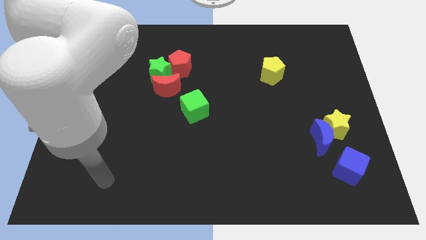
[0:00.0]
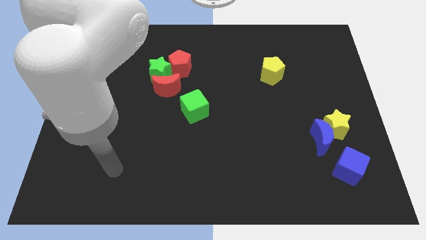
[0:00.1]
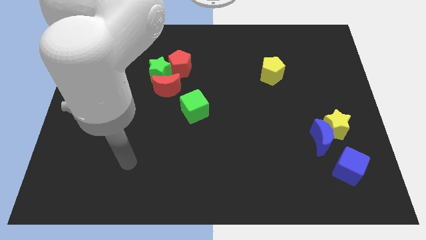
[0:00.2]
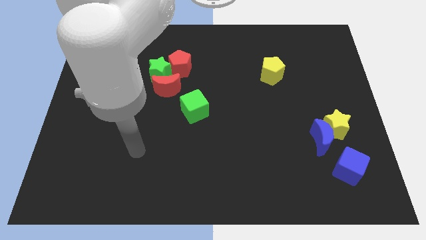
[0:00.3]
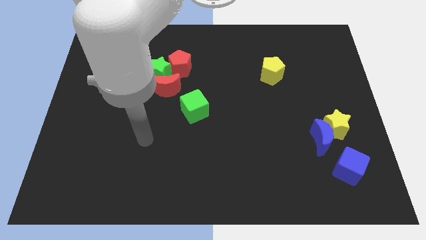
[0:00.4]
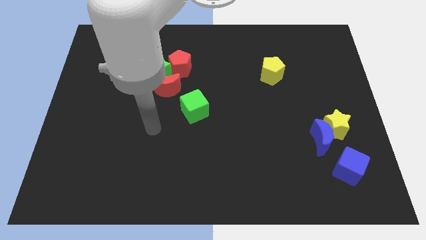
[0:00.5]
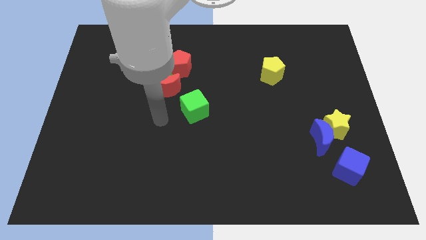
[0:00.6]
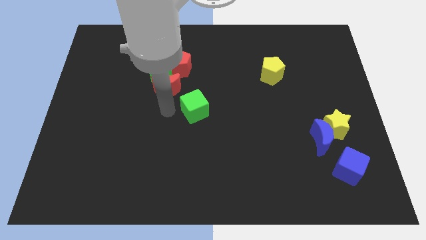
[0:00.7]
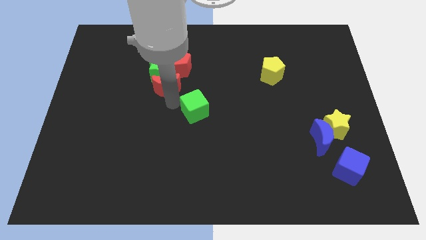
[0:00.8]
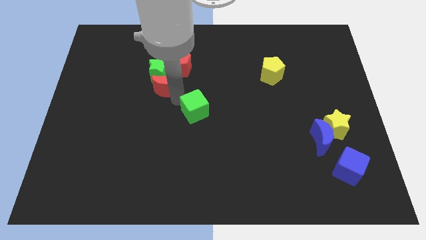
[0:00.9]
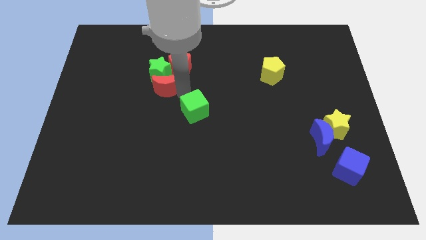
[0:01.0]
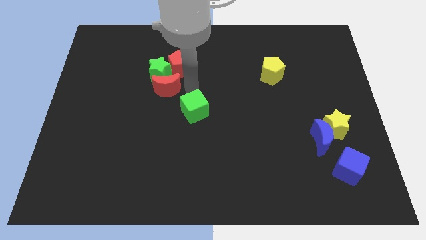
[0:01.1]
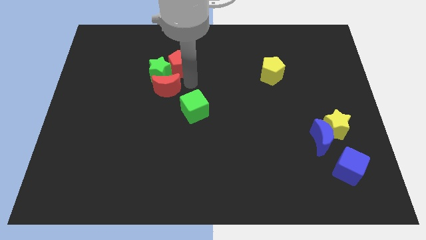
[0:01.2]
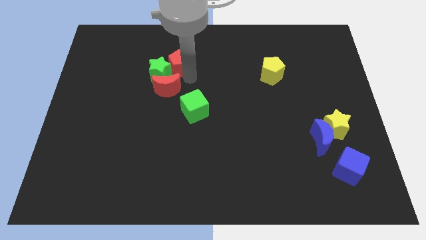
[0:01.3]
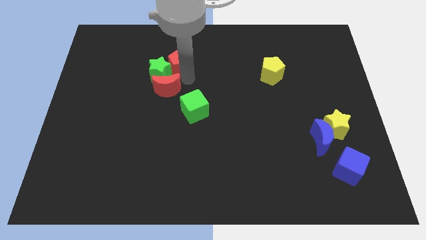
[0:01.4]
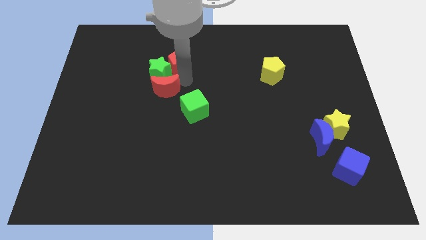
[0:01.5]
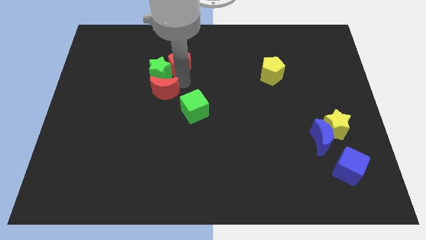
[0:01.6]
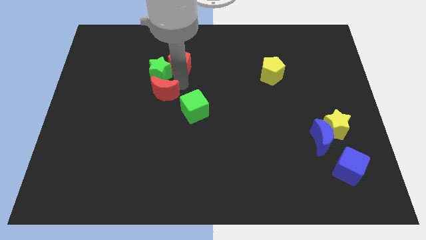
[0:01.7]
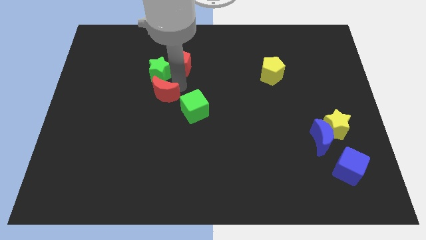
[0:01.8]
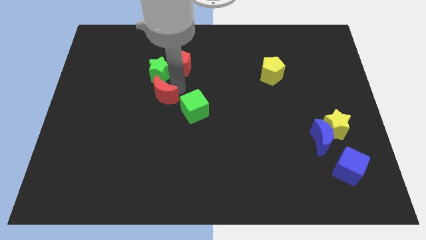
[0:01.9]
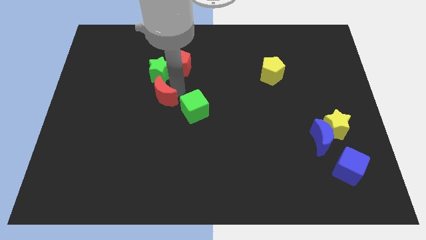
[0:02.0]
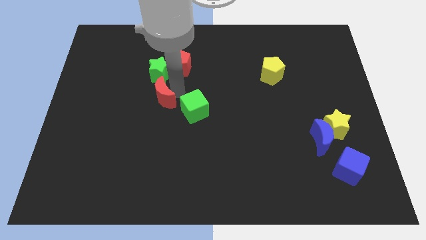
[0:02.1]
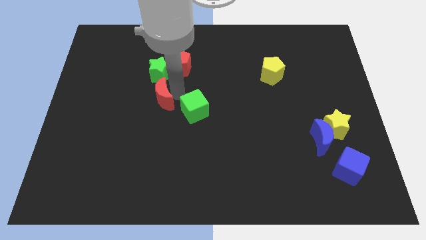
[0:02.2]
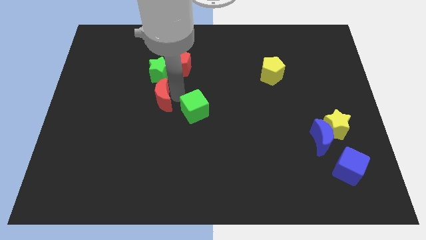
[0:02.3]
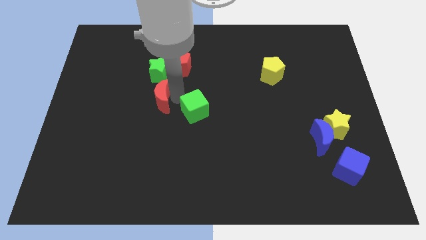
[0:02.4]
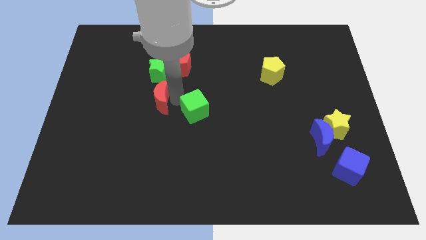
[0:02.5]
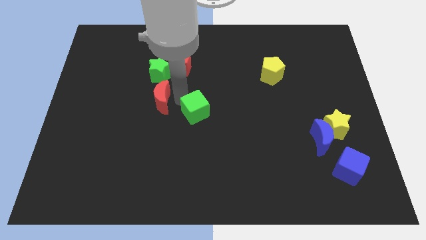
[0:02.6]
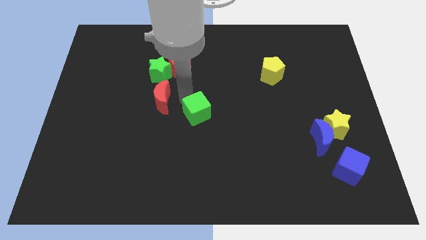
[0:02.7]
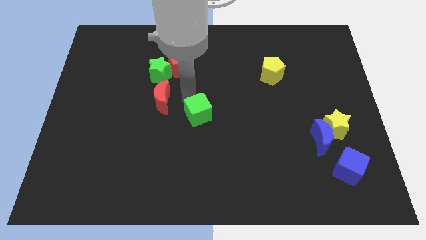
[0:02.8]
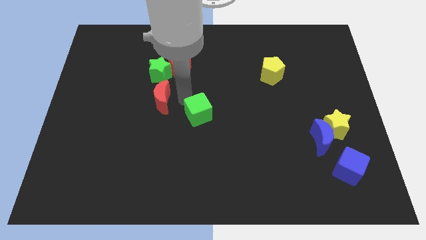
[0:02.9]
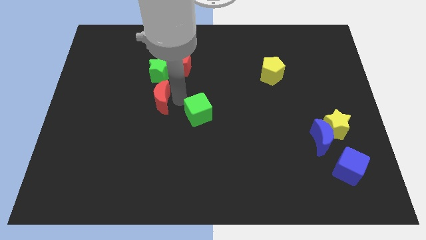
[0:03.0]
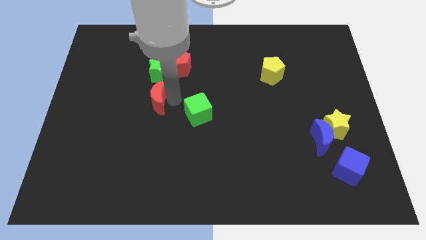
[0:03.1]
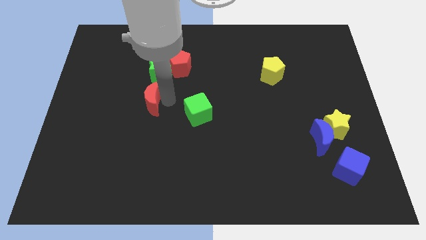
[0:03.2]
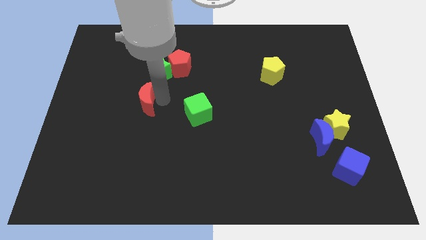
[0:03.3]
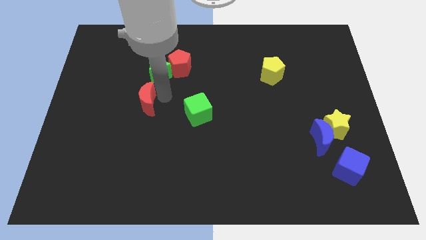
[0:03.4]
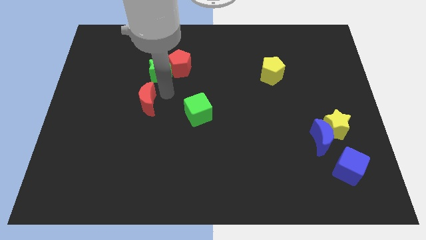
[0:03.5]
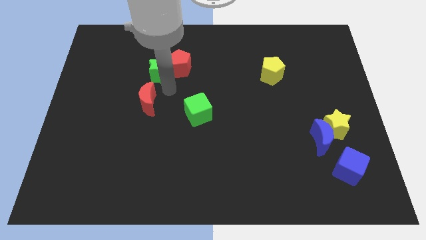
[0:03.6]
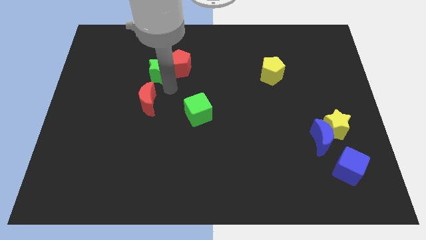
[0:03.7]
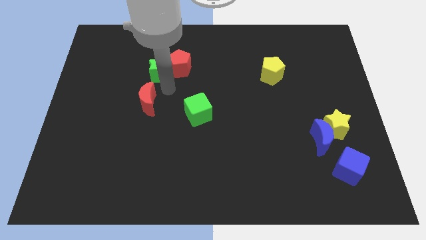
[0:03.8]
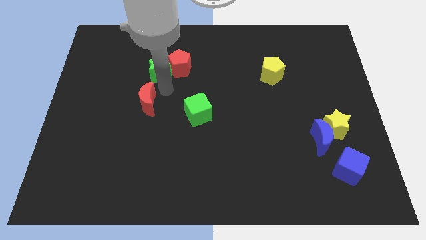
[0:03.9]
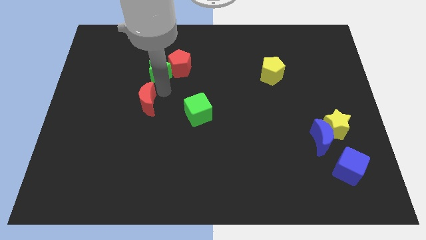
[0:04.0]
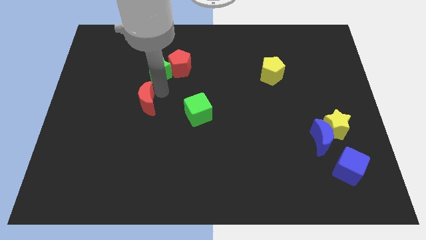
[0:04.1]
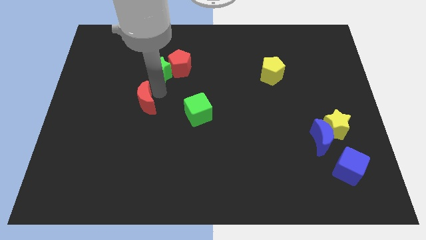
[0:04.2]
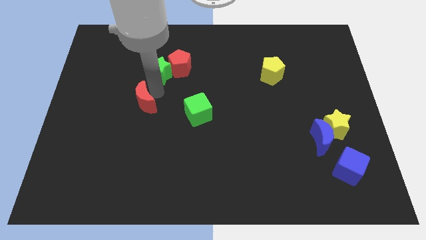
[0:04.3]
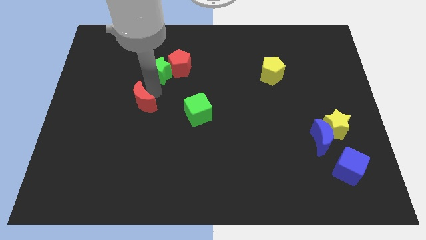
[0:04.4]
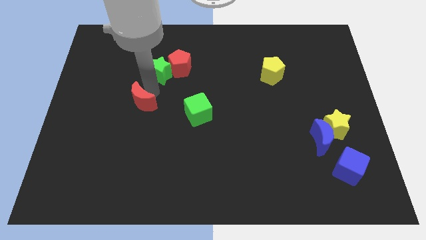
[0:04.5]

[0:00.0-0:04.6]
slide the red moon slightly downwards and then left

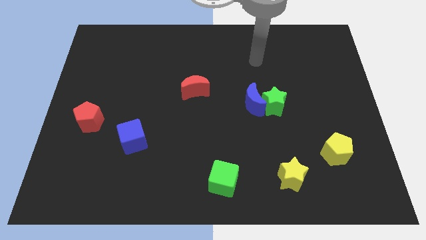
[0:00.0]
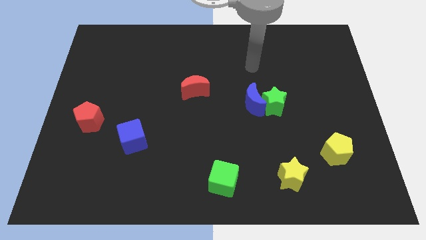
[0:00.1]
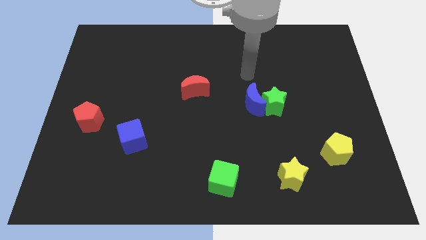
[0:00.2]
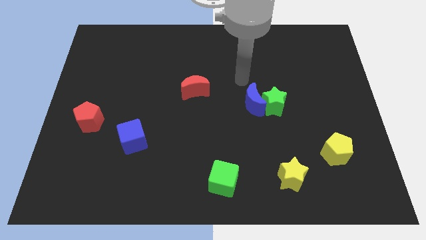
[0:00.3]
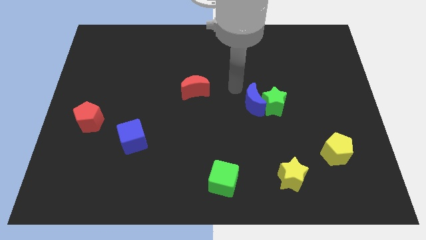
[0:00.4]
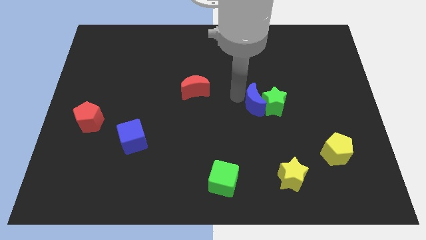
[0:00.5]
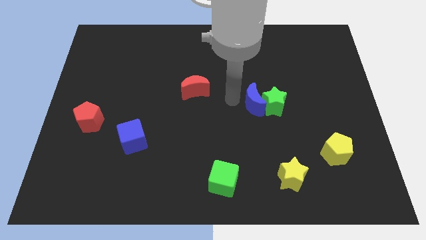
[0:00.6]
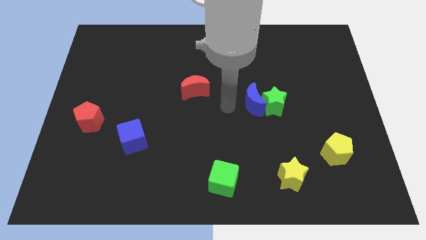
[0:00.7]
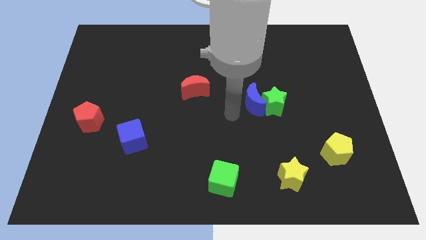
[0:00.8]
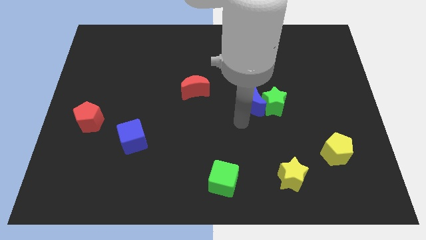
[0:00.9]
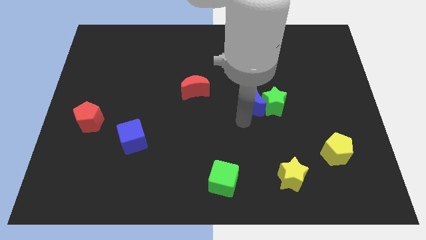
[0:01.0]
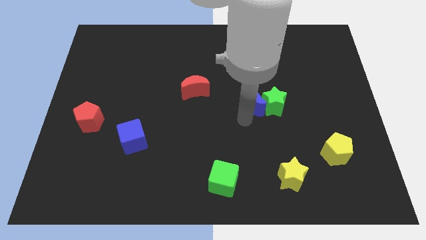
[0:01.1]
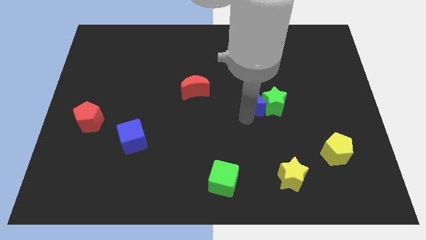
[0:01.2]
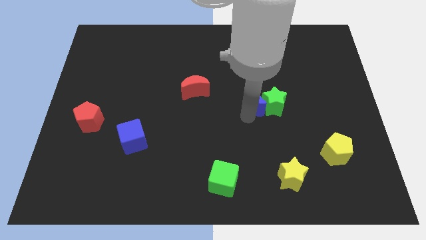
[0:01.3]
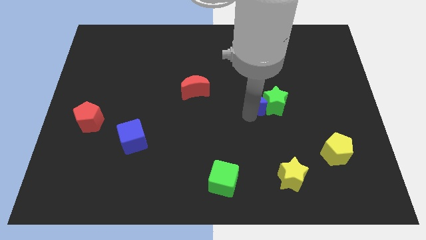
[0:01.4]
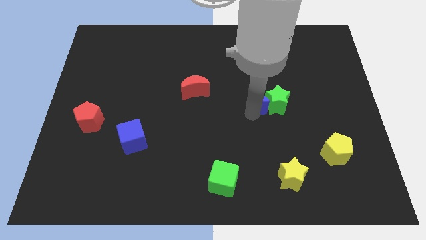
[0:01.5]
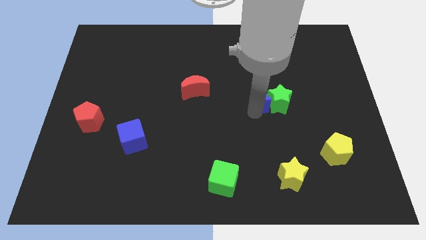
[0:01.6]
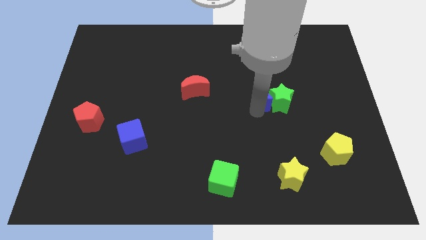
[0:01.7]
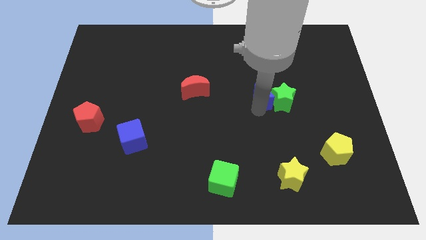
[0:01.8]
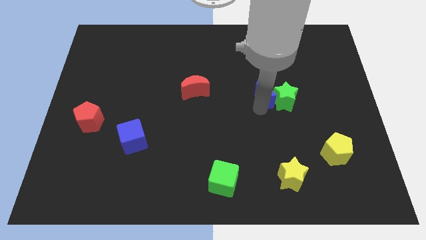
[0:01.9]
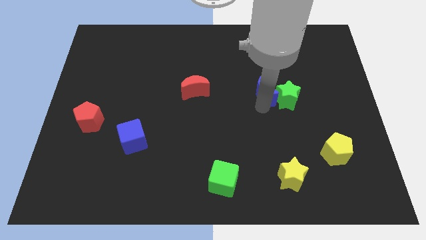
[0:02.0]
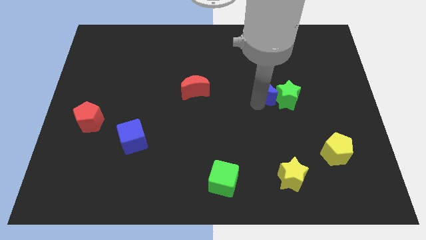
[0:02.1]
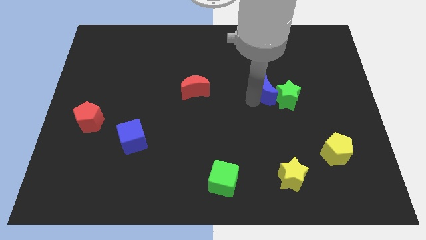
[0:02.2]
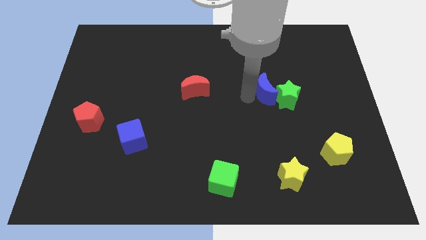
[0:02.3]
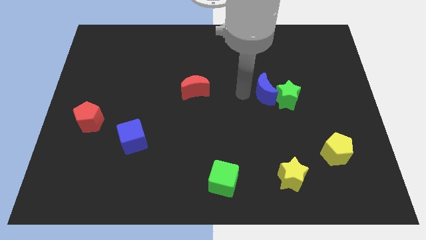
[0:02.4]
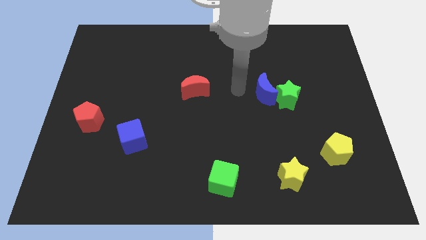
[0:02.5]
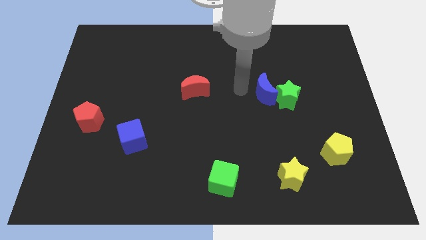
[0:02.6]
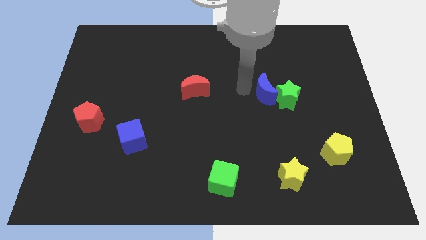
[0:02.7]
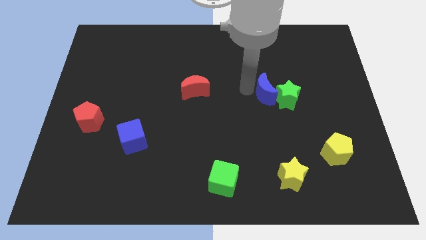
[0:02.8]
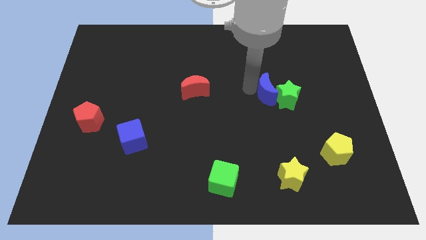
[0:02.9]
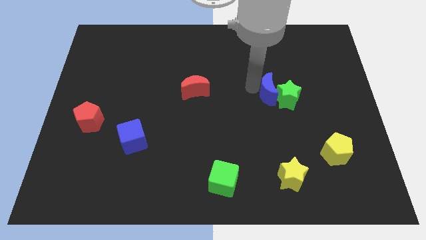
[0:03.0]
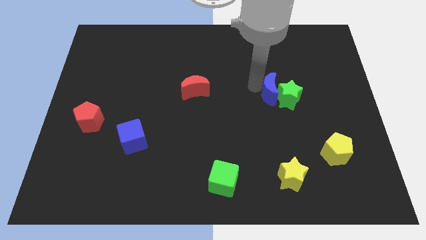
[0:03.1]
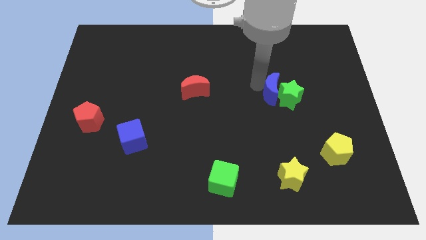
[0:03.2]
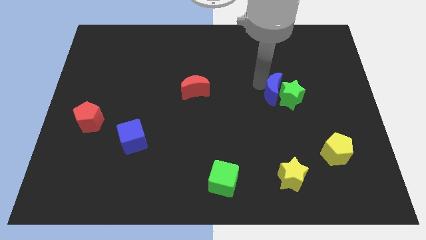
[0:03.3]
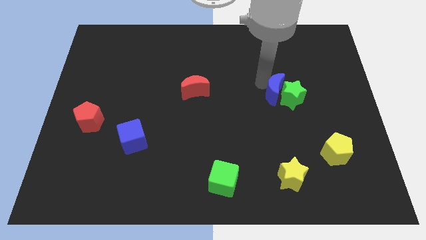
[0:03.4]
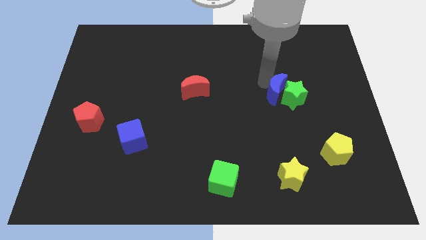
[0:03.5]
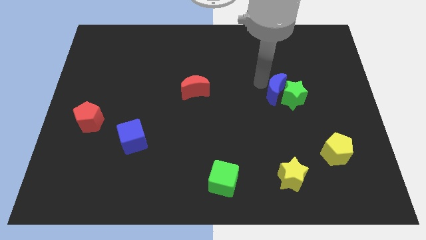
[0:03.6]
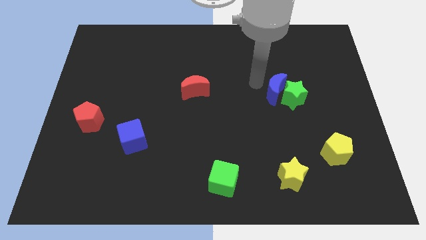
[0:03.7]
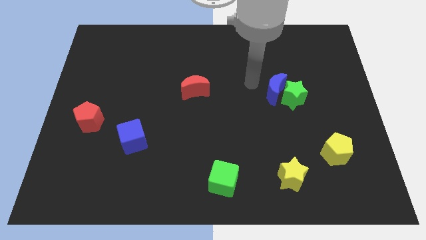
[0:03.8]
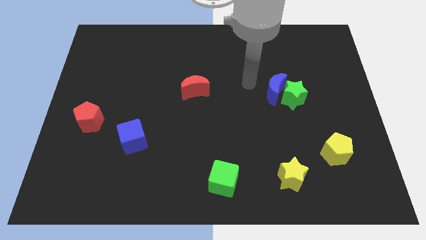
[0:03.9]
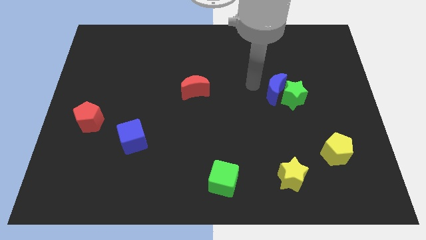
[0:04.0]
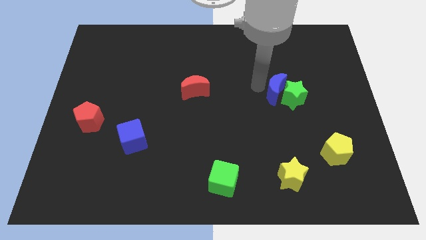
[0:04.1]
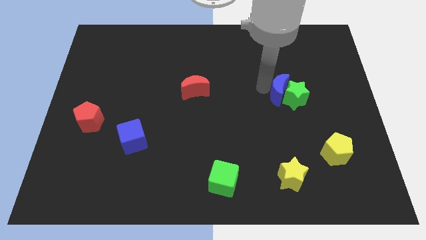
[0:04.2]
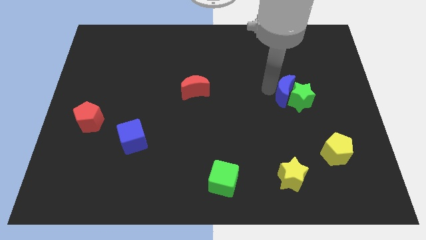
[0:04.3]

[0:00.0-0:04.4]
move the blue moon a little bit right
